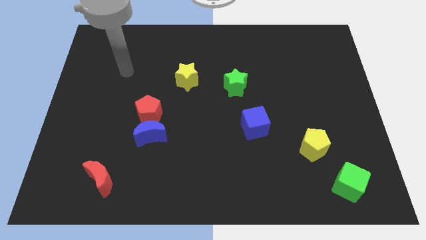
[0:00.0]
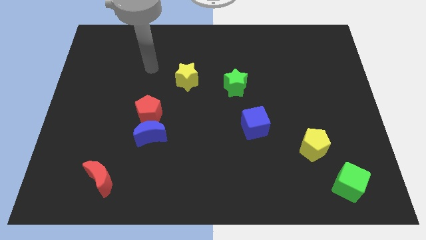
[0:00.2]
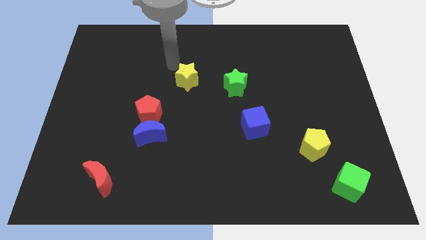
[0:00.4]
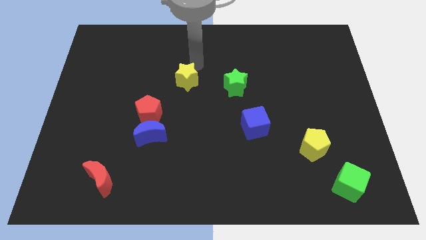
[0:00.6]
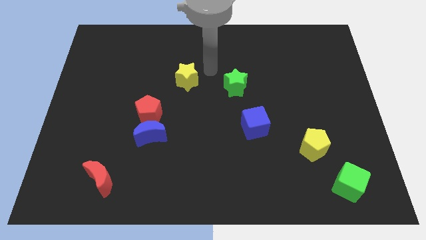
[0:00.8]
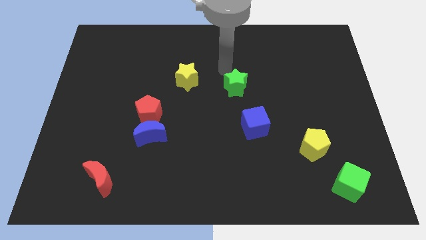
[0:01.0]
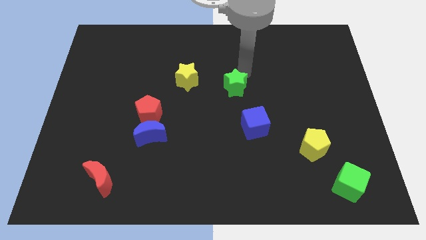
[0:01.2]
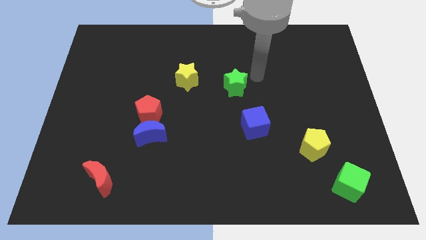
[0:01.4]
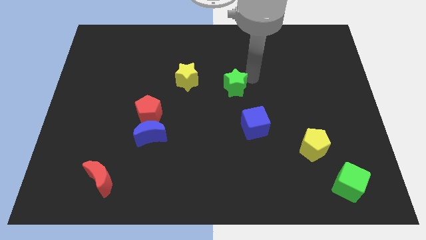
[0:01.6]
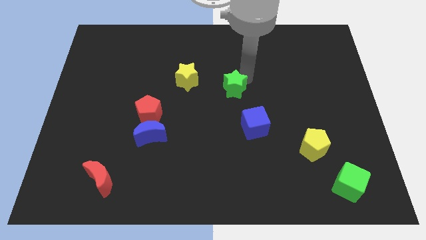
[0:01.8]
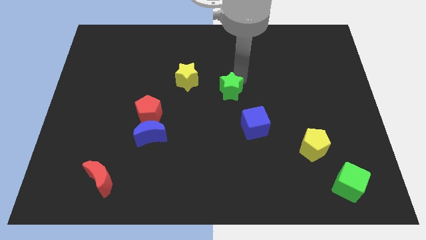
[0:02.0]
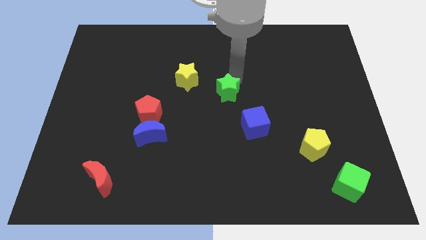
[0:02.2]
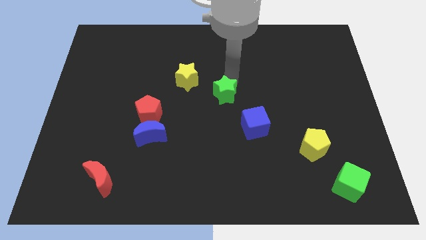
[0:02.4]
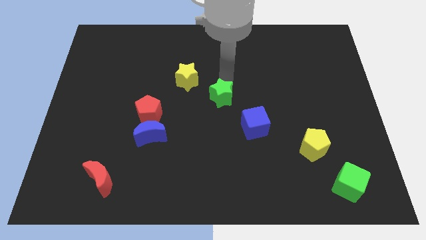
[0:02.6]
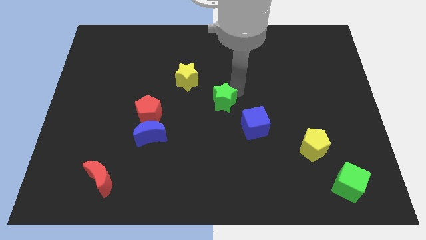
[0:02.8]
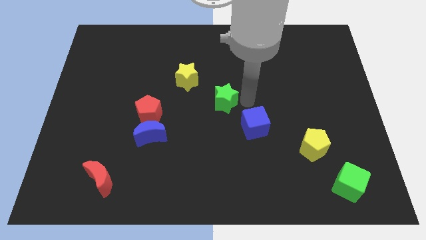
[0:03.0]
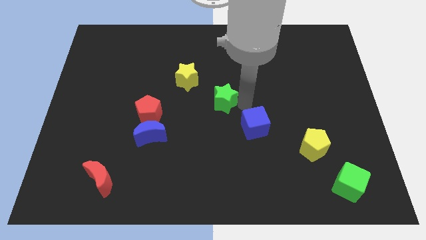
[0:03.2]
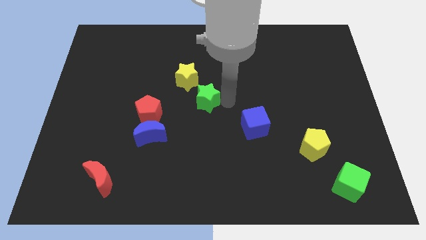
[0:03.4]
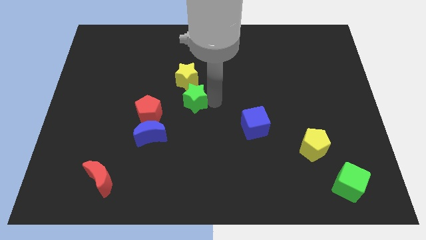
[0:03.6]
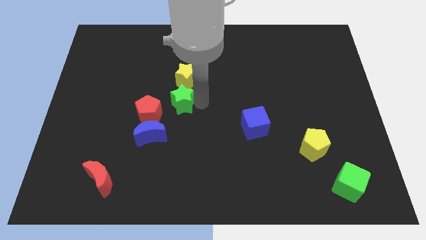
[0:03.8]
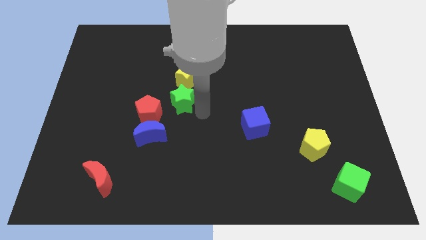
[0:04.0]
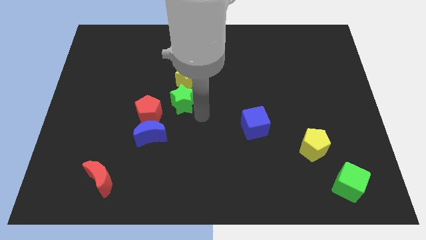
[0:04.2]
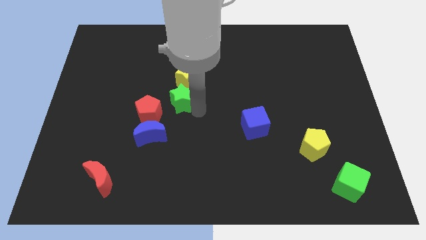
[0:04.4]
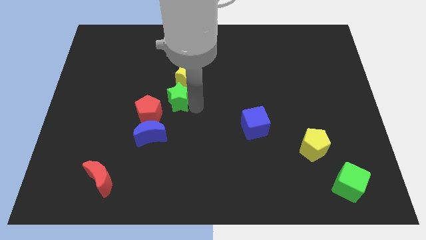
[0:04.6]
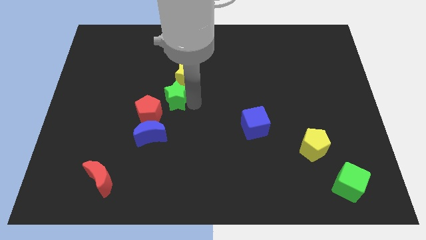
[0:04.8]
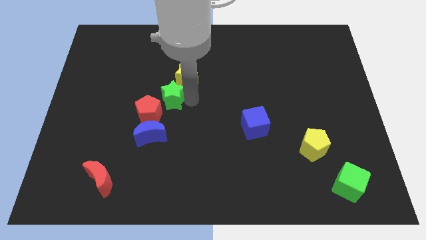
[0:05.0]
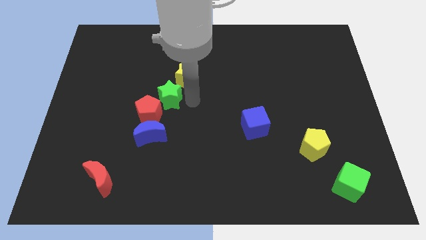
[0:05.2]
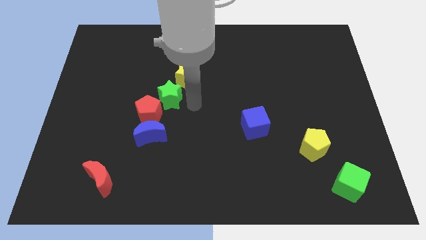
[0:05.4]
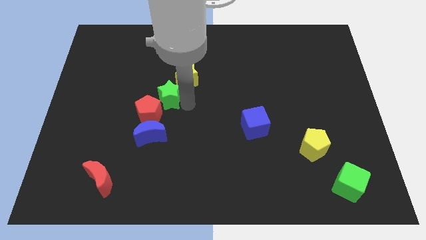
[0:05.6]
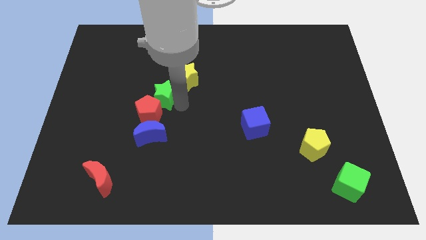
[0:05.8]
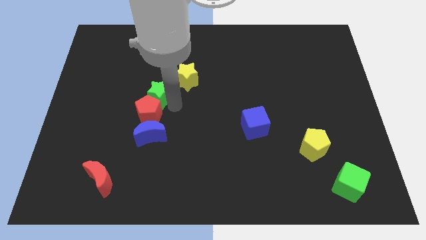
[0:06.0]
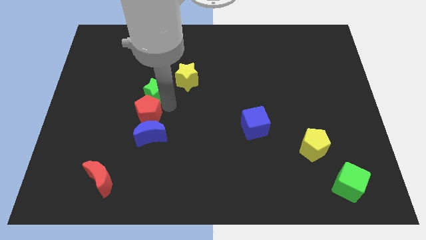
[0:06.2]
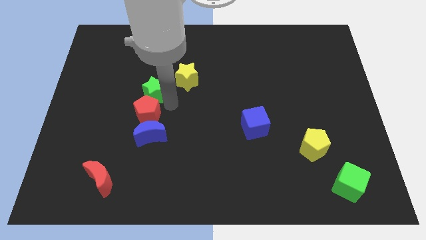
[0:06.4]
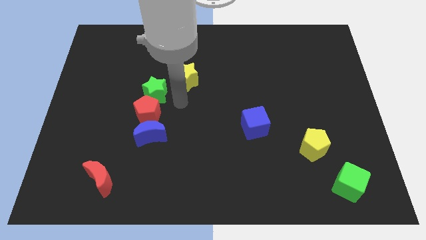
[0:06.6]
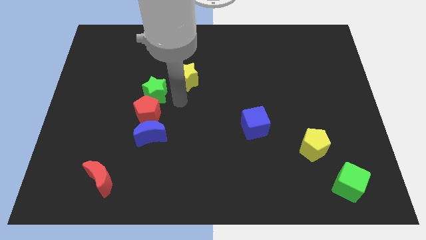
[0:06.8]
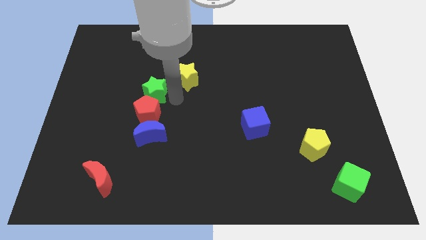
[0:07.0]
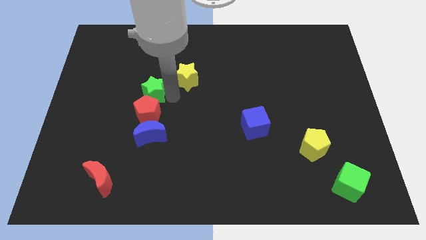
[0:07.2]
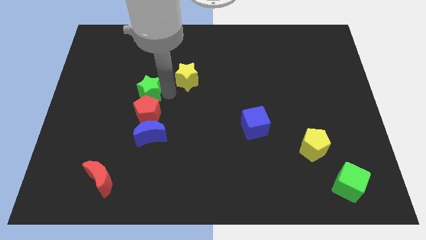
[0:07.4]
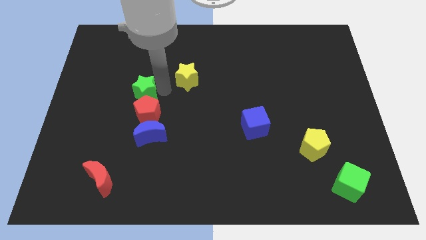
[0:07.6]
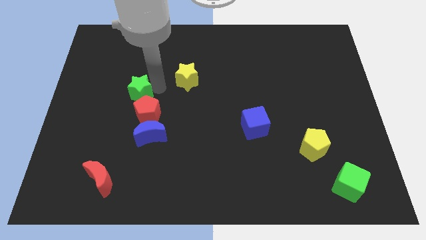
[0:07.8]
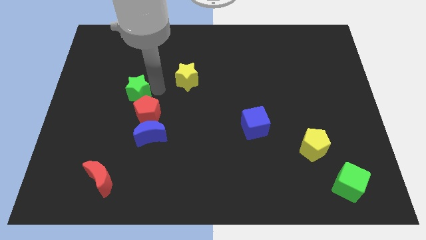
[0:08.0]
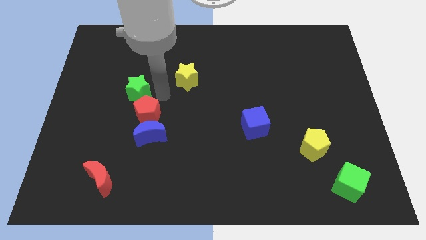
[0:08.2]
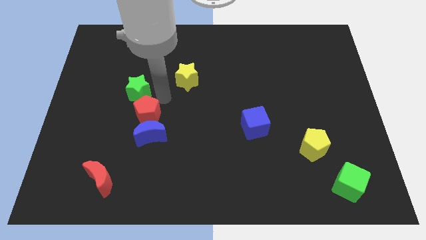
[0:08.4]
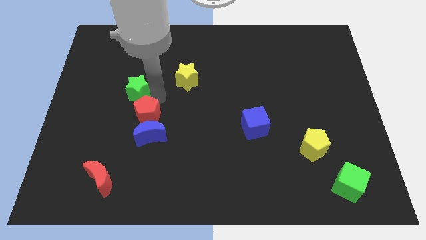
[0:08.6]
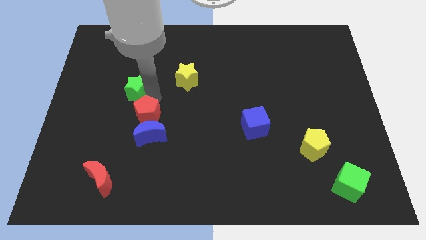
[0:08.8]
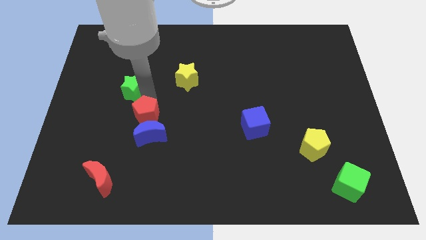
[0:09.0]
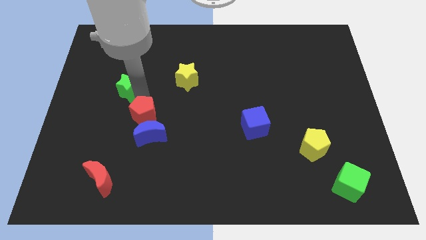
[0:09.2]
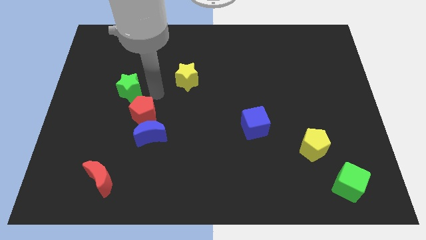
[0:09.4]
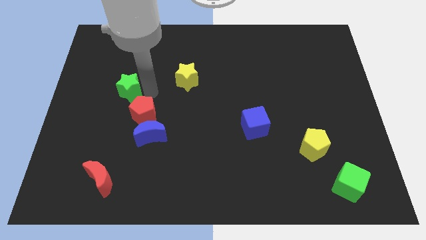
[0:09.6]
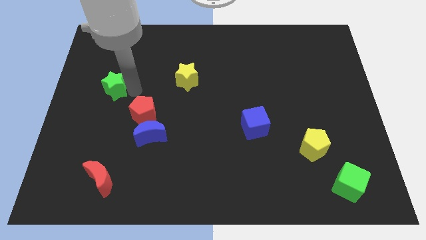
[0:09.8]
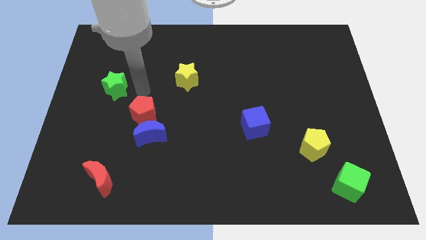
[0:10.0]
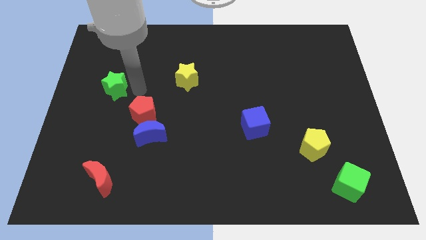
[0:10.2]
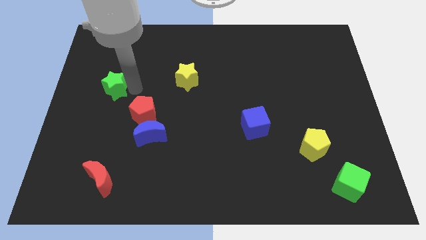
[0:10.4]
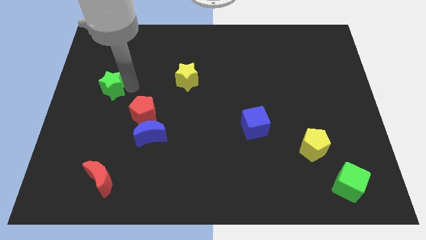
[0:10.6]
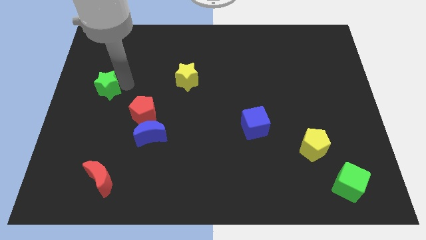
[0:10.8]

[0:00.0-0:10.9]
push the green star to the center left
